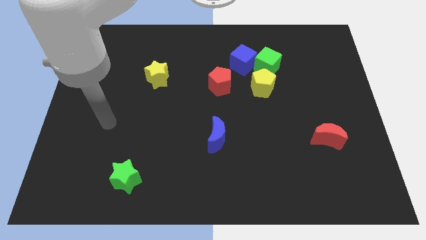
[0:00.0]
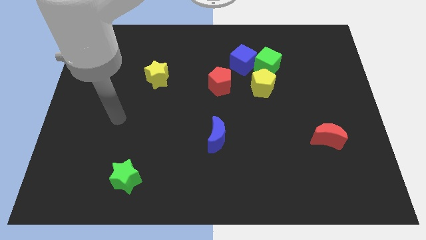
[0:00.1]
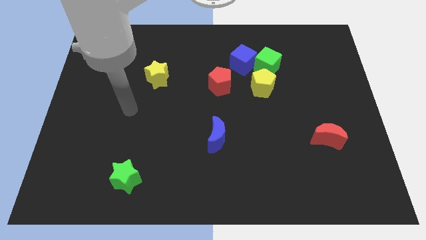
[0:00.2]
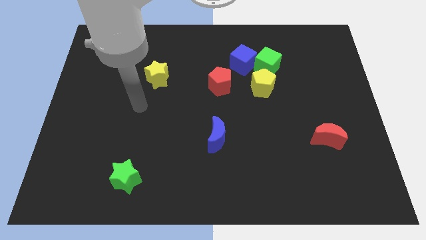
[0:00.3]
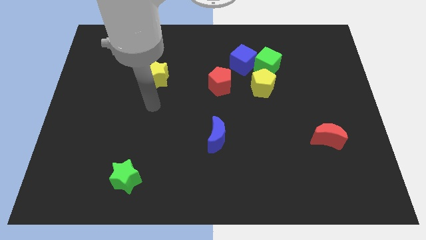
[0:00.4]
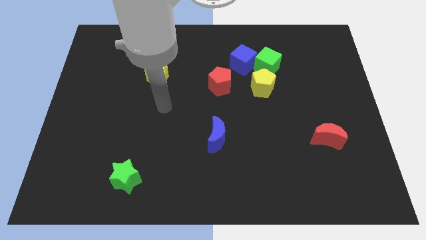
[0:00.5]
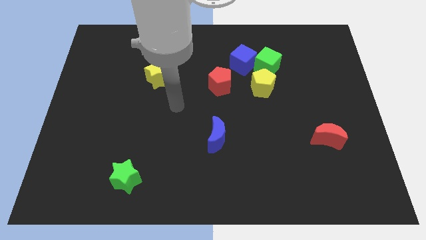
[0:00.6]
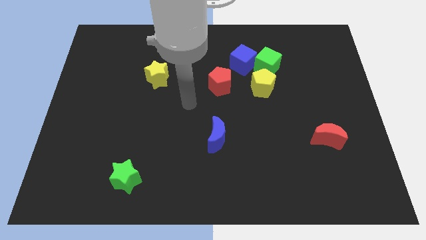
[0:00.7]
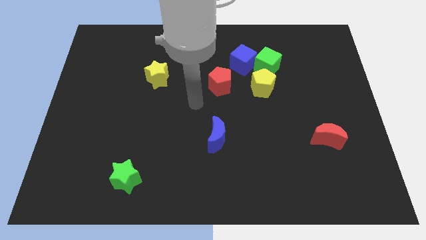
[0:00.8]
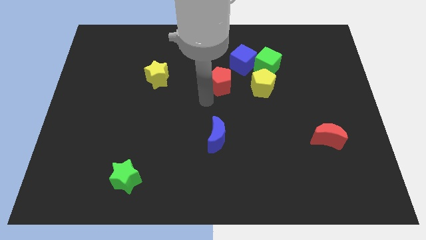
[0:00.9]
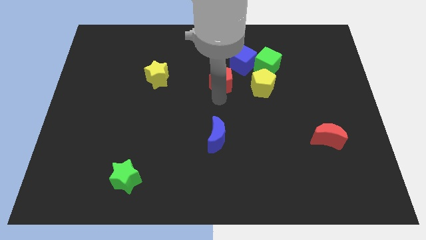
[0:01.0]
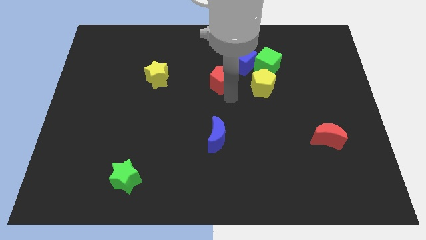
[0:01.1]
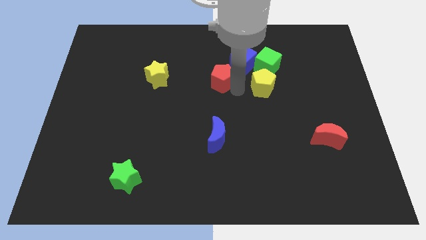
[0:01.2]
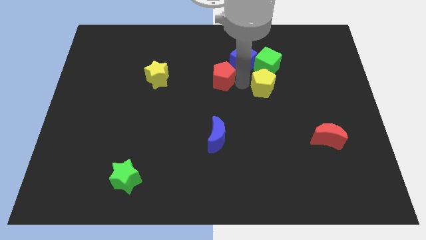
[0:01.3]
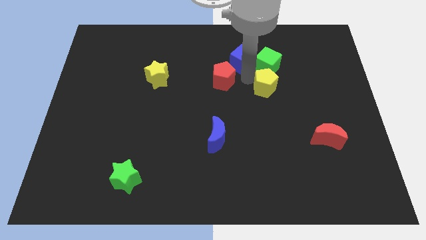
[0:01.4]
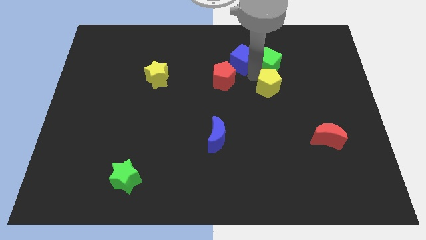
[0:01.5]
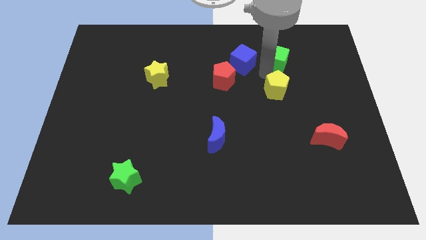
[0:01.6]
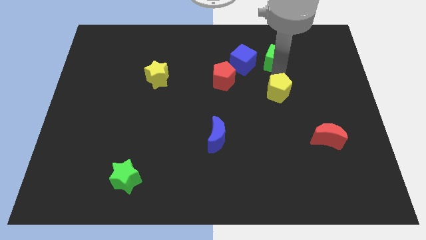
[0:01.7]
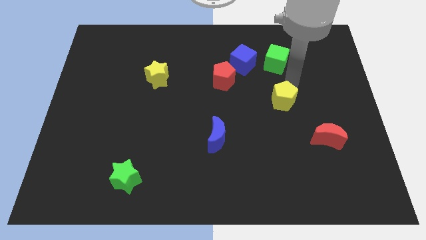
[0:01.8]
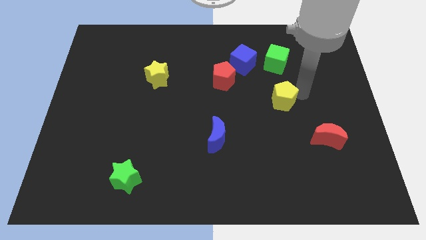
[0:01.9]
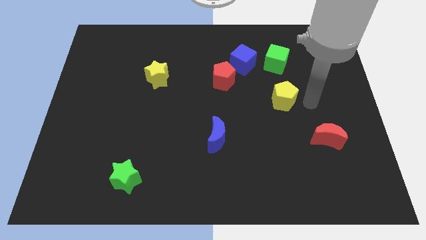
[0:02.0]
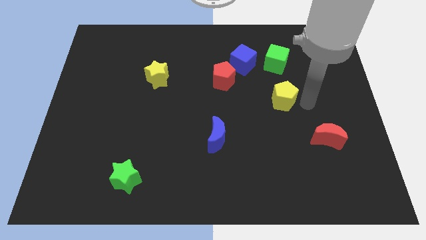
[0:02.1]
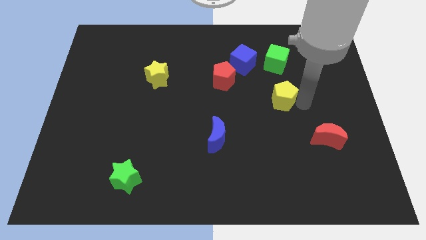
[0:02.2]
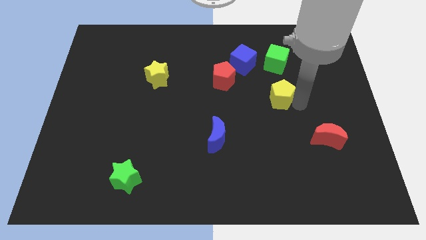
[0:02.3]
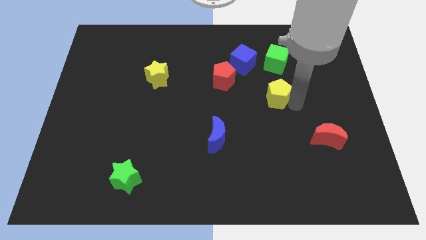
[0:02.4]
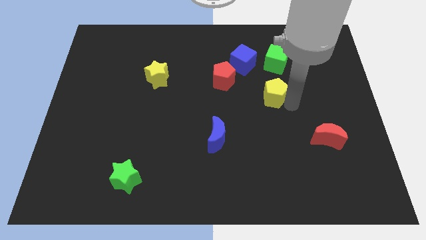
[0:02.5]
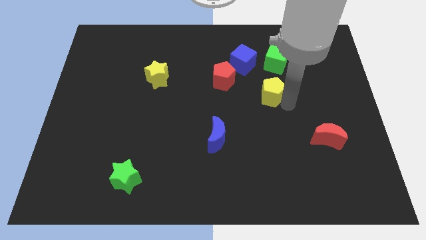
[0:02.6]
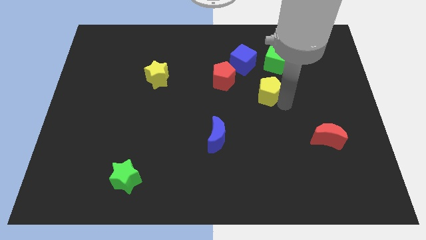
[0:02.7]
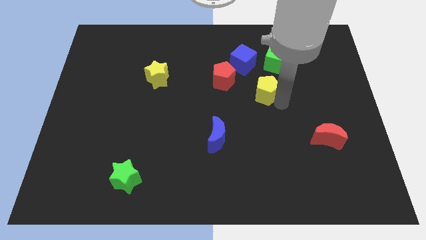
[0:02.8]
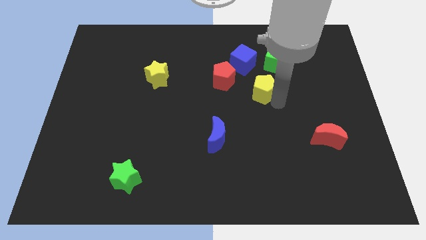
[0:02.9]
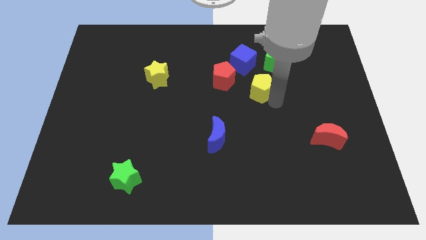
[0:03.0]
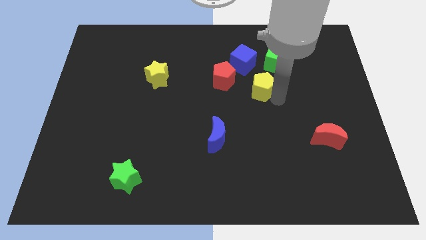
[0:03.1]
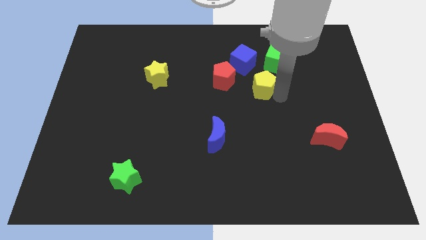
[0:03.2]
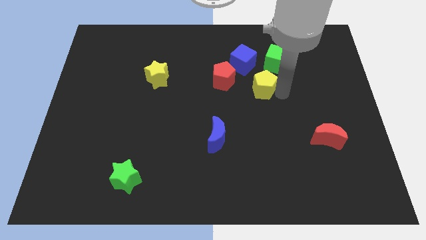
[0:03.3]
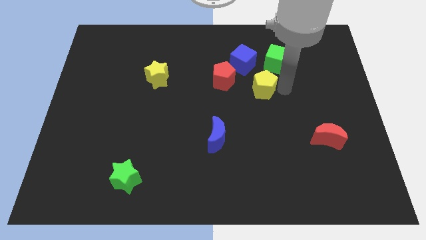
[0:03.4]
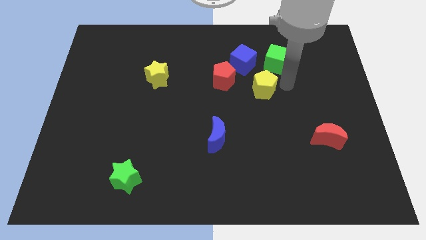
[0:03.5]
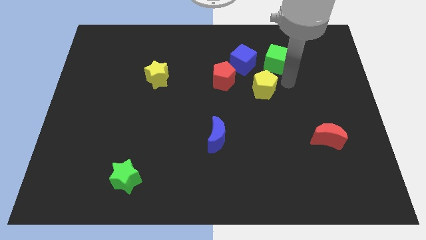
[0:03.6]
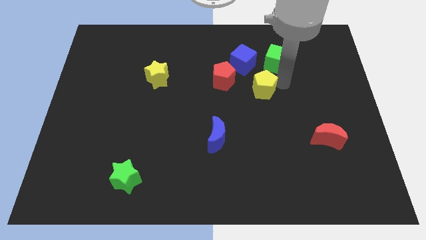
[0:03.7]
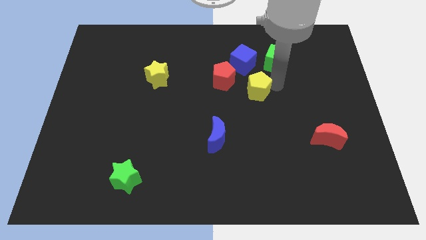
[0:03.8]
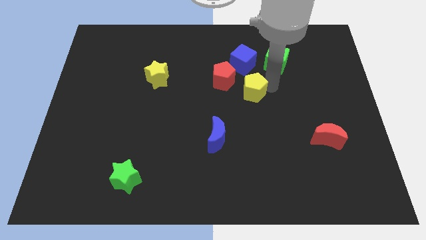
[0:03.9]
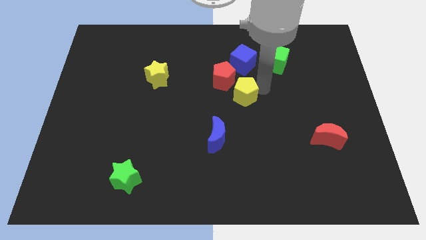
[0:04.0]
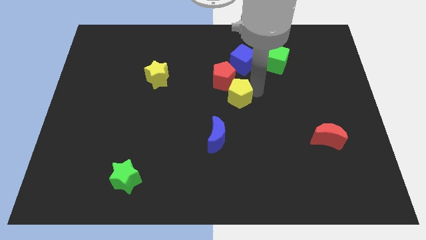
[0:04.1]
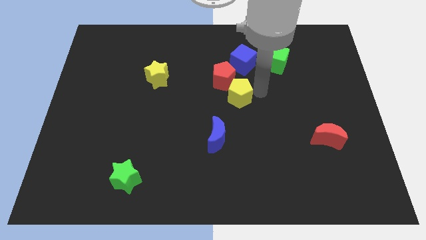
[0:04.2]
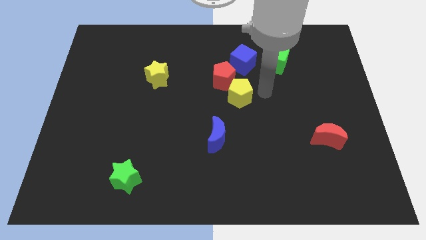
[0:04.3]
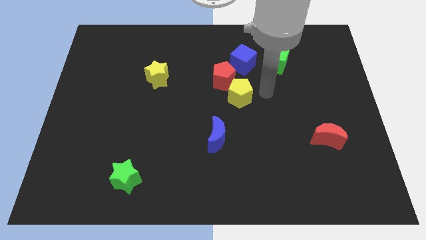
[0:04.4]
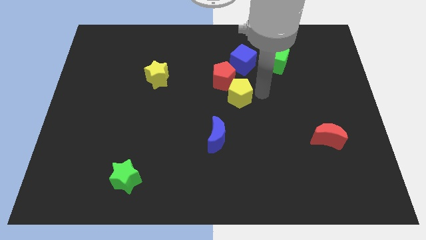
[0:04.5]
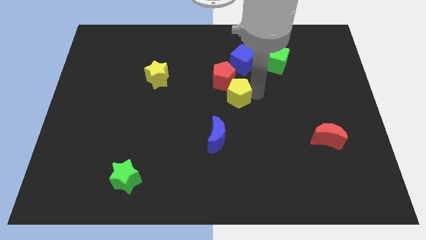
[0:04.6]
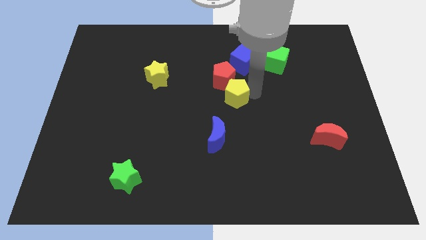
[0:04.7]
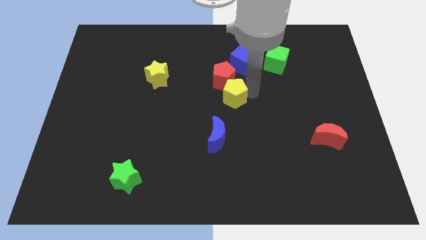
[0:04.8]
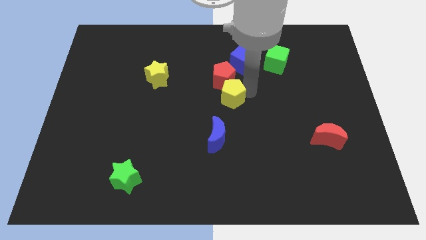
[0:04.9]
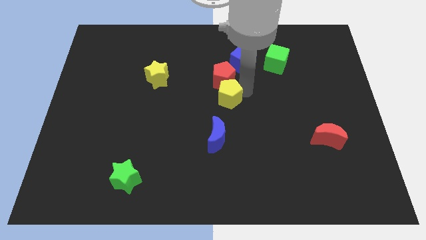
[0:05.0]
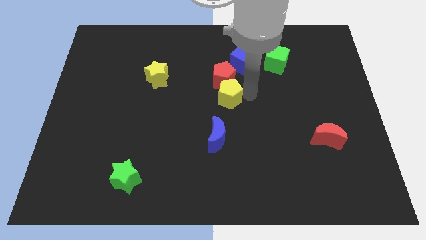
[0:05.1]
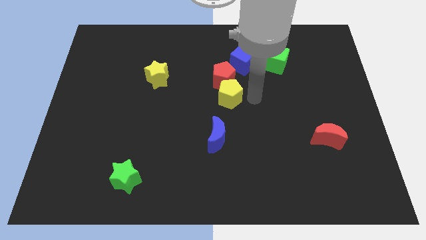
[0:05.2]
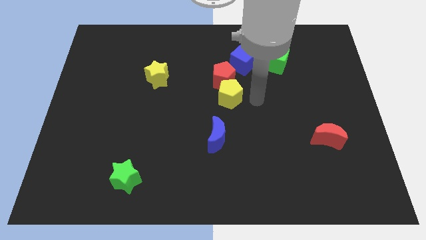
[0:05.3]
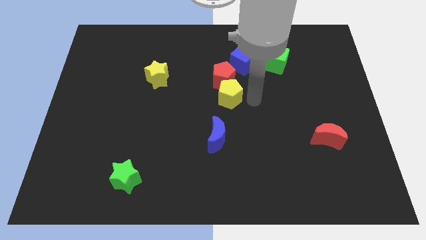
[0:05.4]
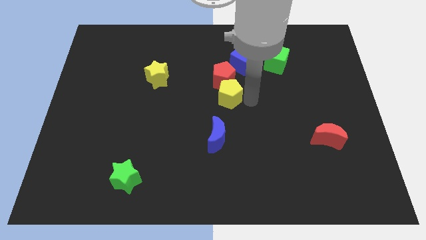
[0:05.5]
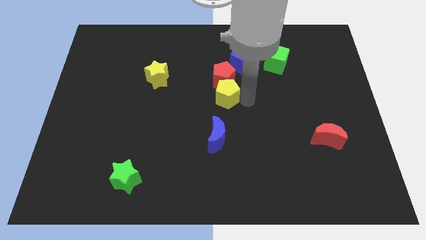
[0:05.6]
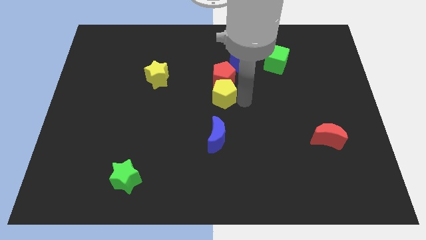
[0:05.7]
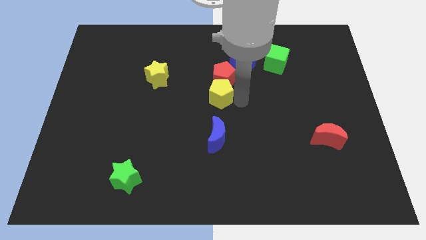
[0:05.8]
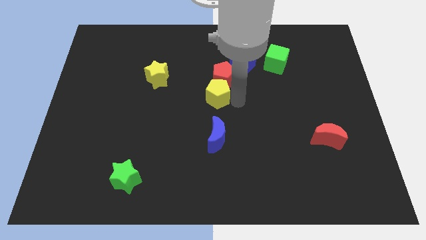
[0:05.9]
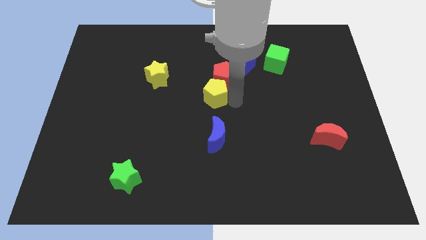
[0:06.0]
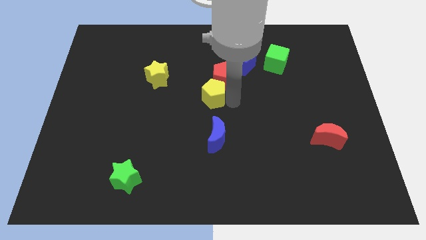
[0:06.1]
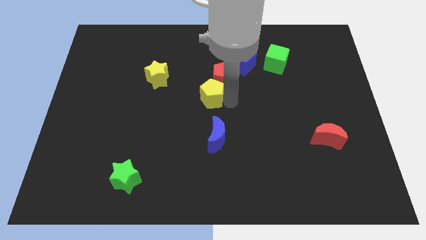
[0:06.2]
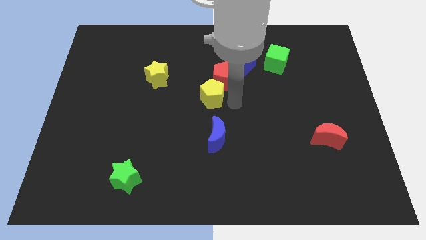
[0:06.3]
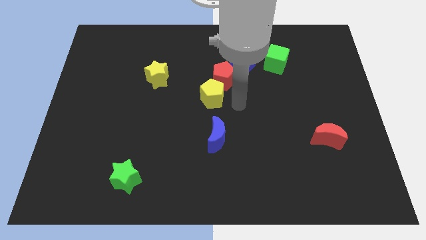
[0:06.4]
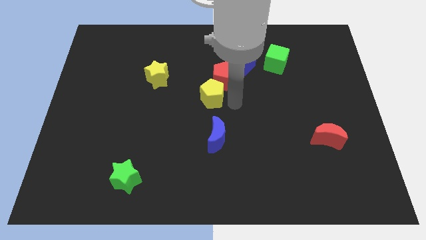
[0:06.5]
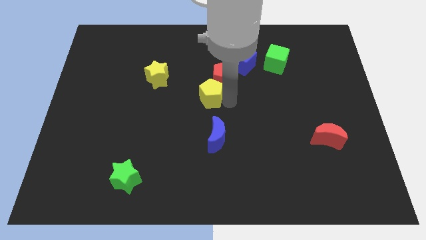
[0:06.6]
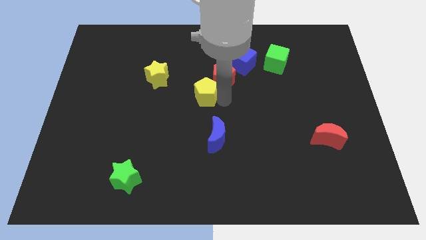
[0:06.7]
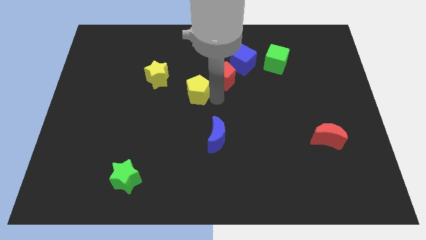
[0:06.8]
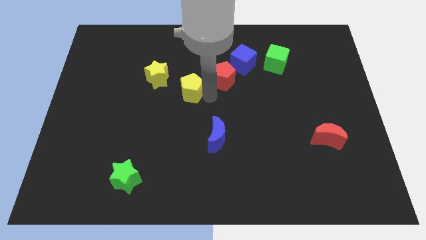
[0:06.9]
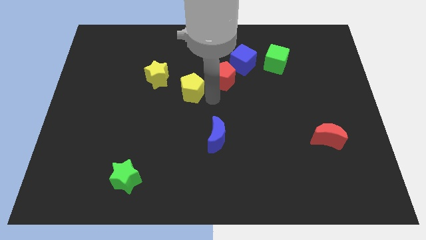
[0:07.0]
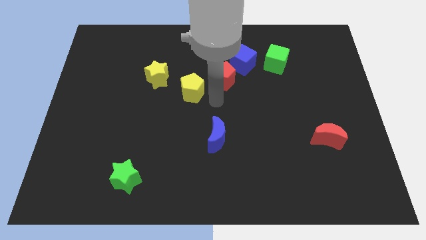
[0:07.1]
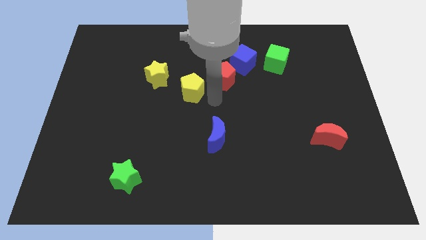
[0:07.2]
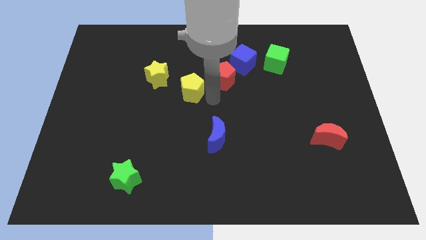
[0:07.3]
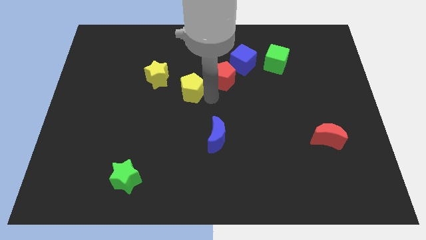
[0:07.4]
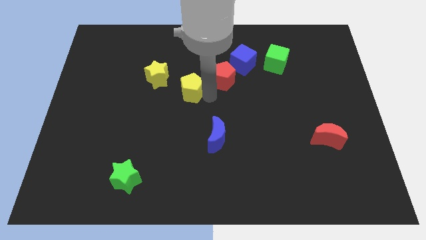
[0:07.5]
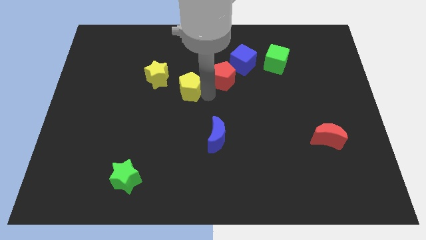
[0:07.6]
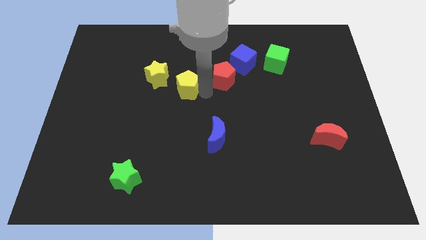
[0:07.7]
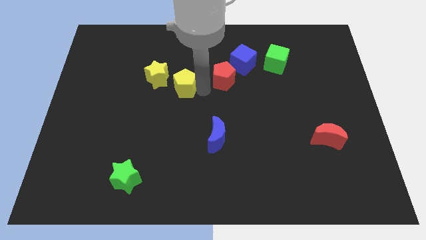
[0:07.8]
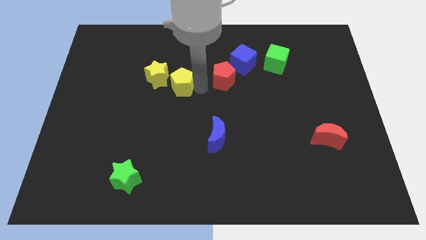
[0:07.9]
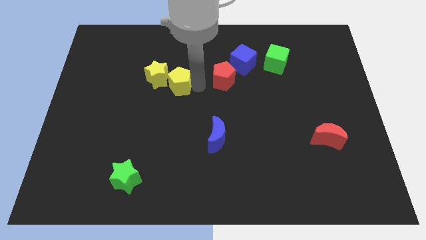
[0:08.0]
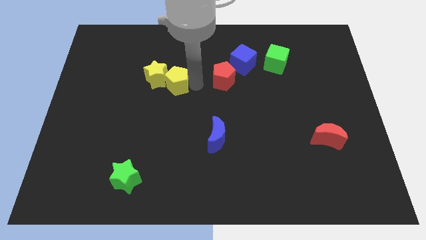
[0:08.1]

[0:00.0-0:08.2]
put the yellow pentagon towards the yellow star
